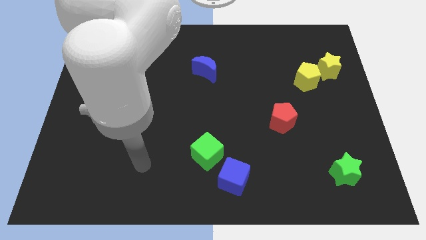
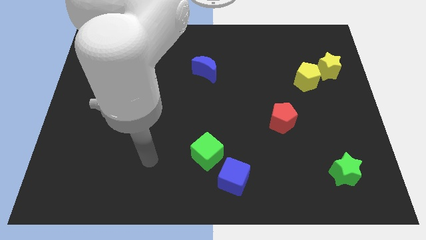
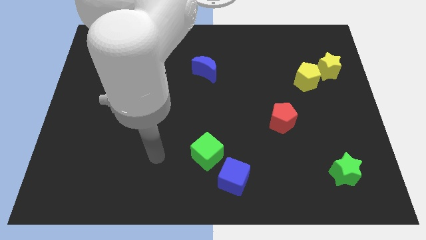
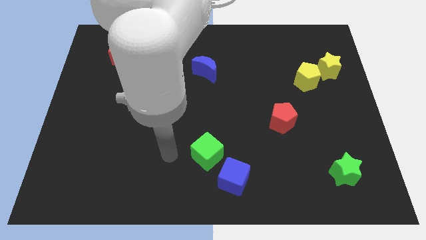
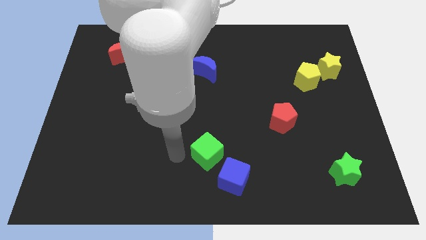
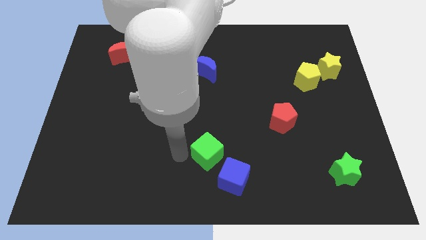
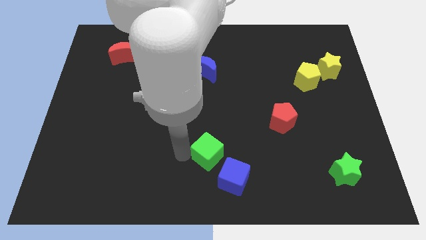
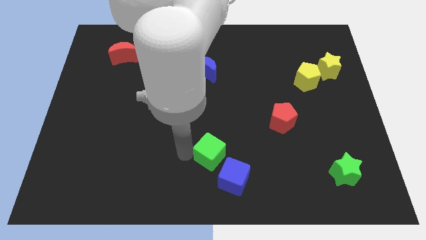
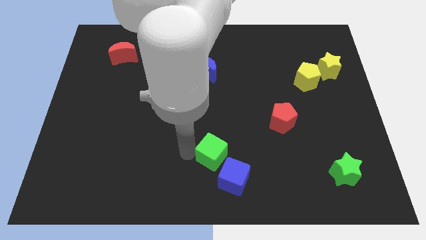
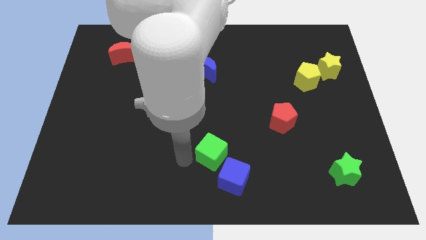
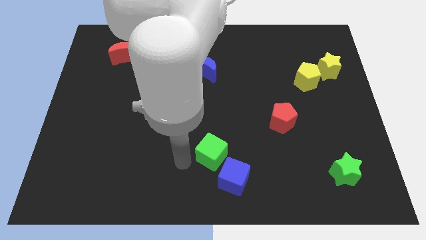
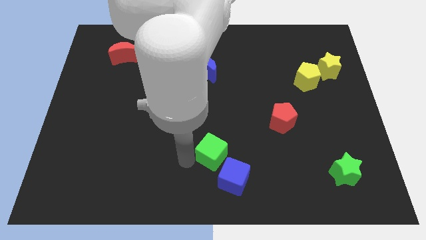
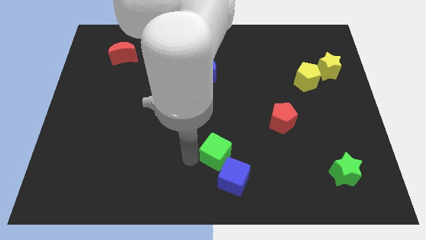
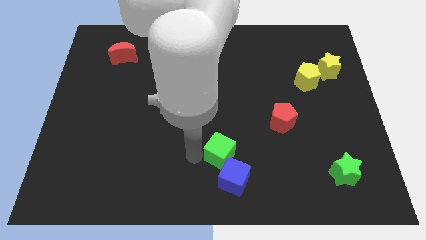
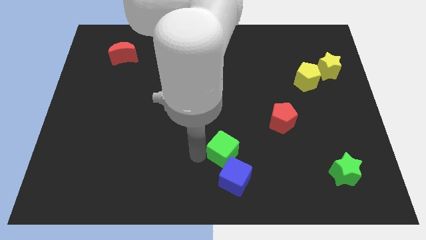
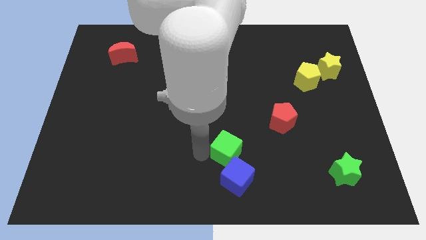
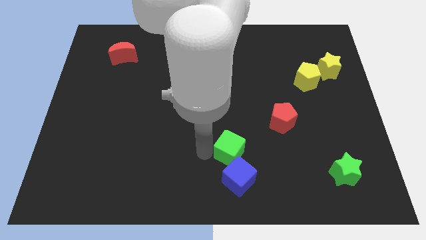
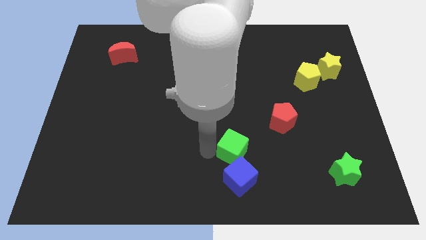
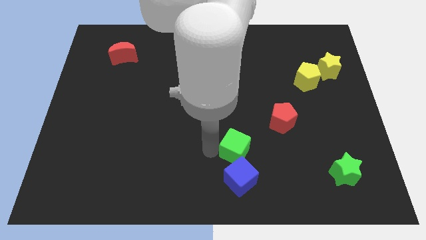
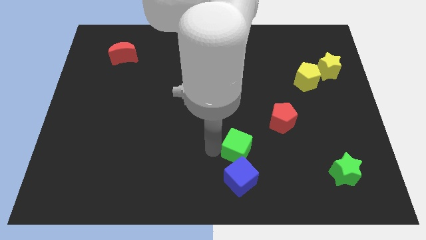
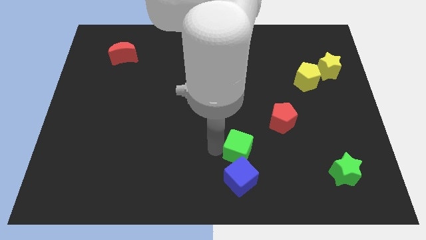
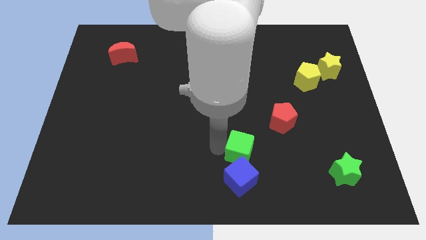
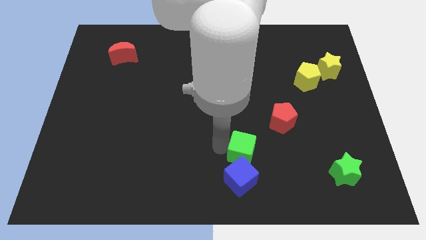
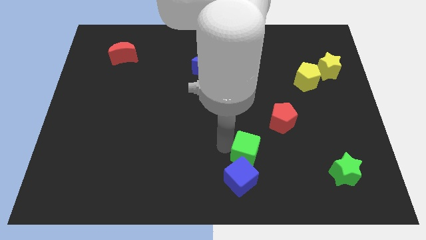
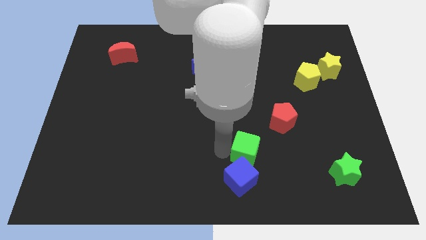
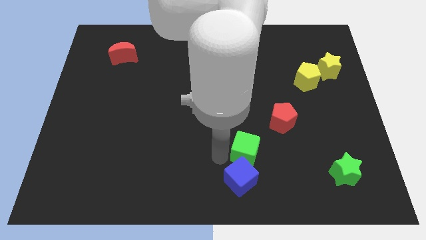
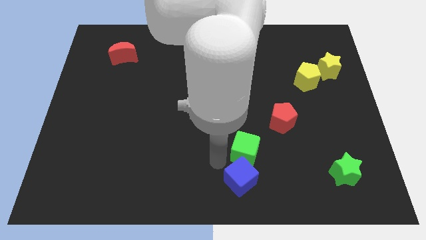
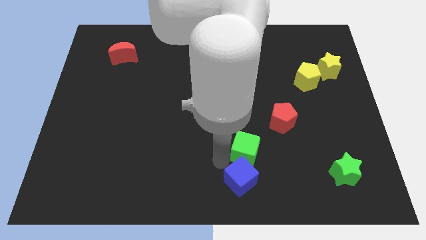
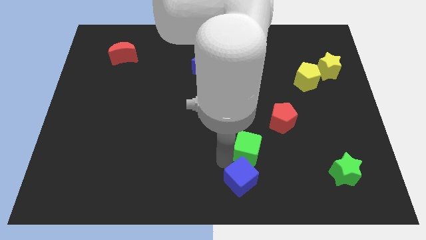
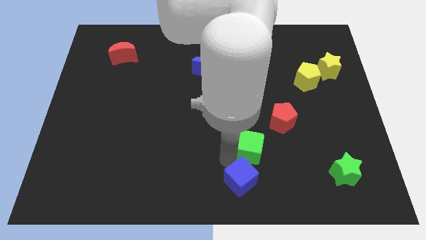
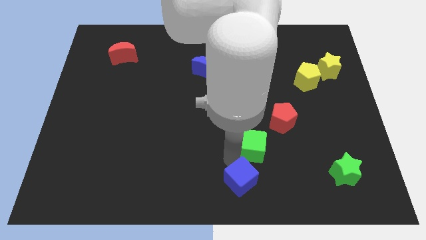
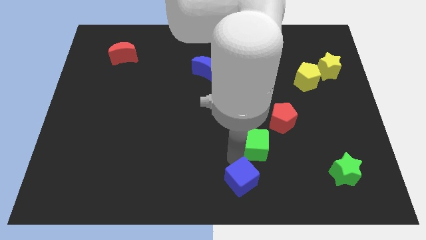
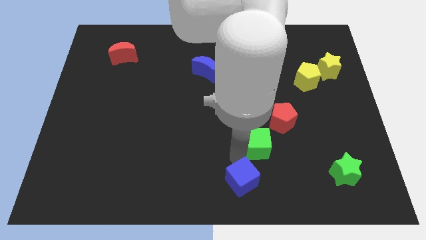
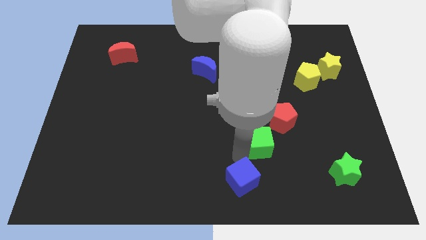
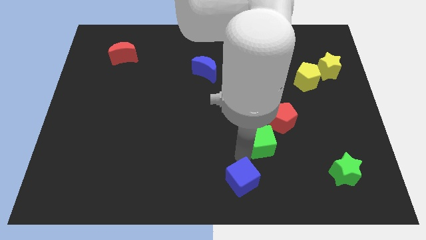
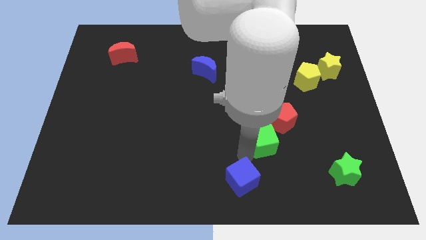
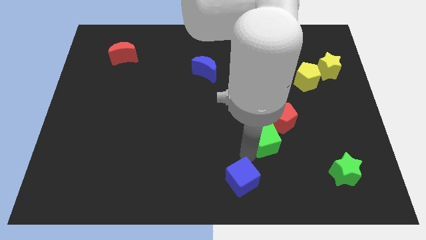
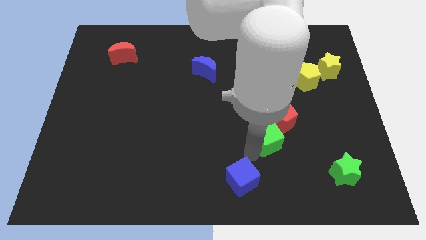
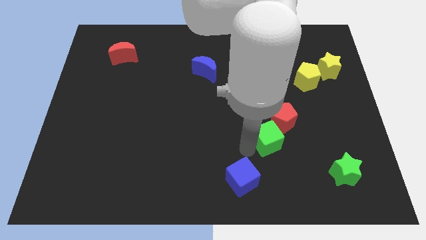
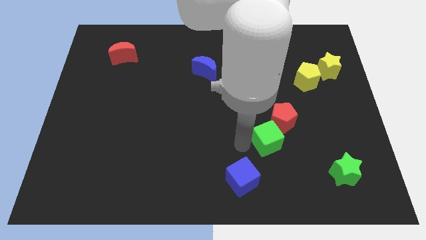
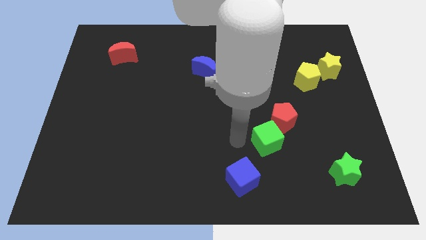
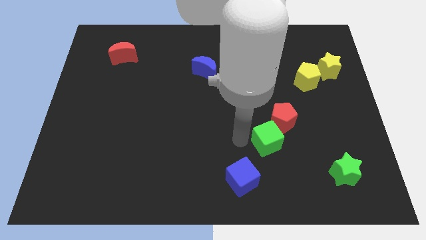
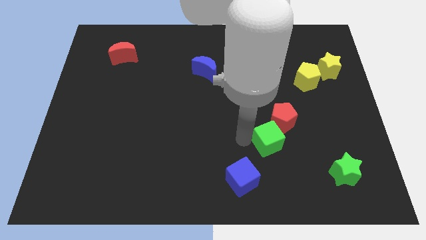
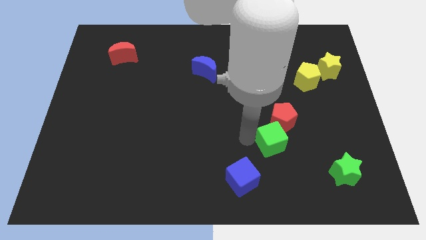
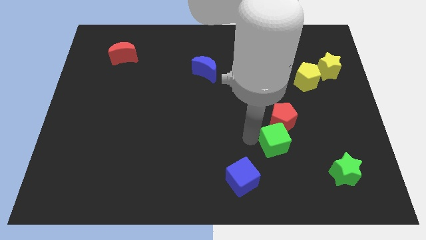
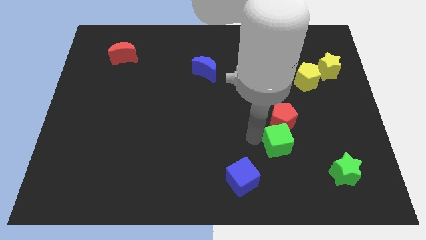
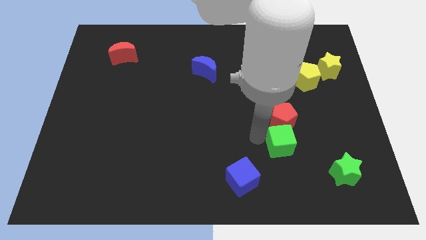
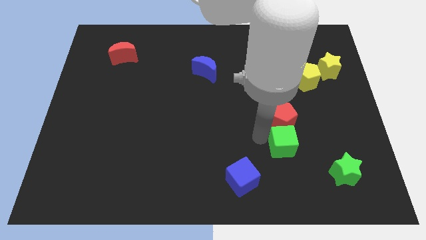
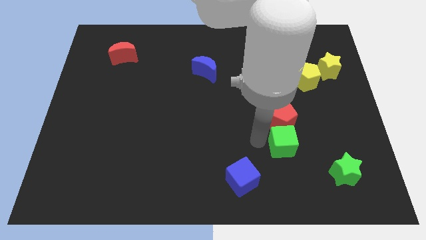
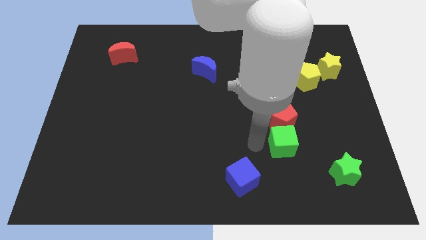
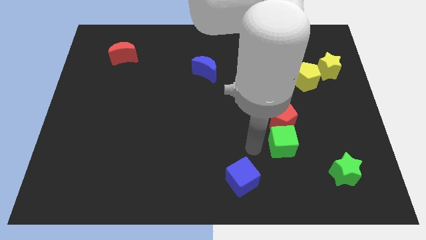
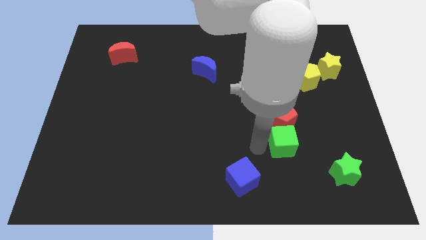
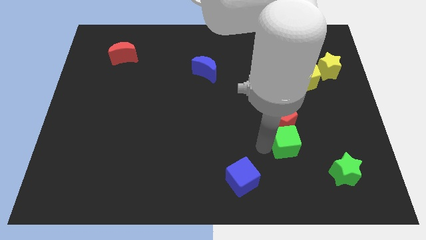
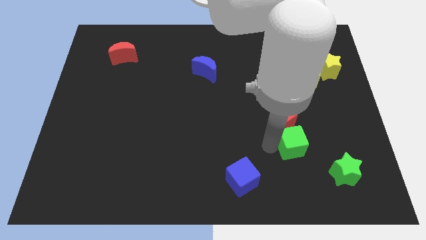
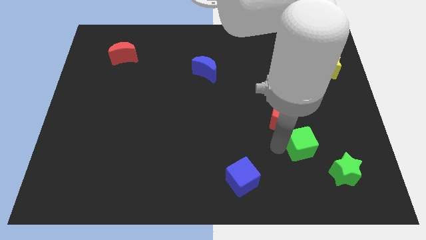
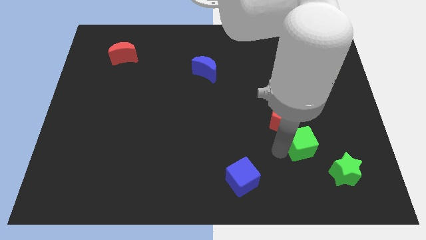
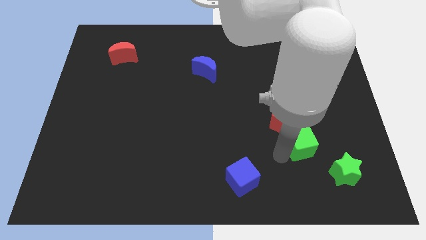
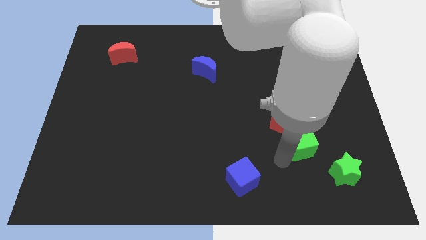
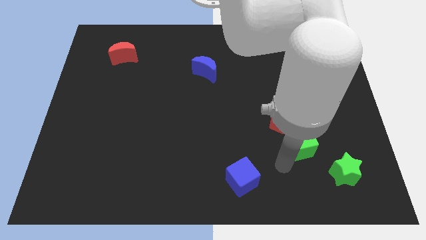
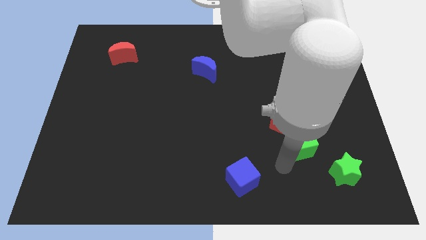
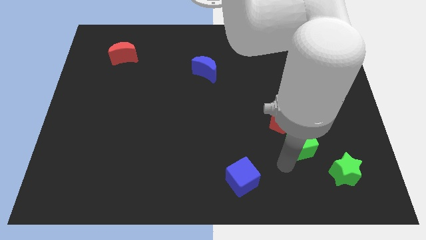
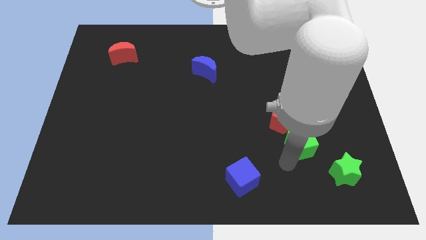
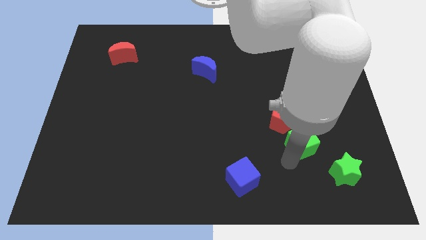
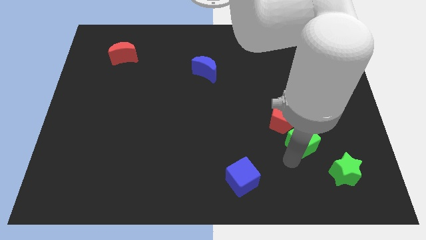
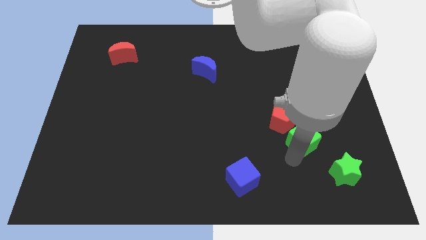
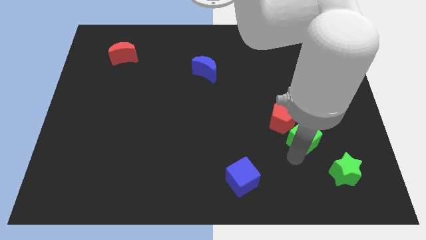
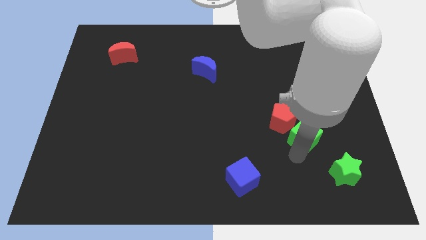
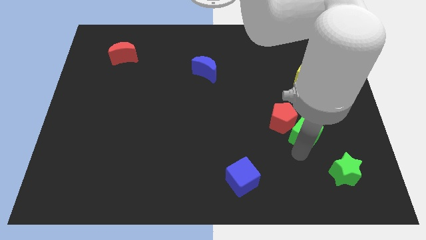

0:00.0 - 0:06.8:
put the green cube just right of the red pentagon
